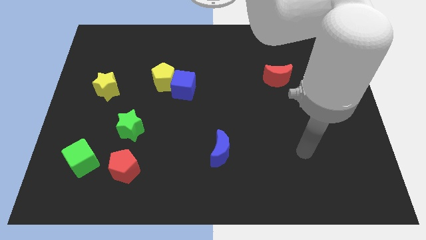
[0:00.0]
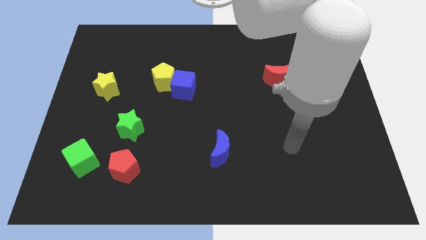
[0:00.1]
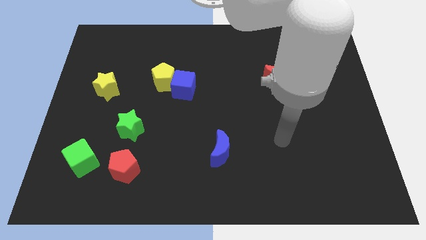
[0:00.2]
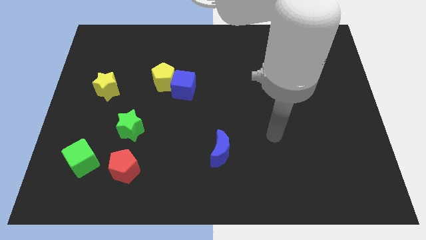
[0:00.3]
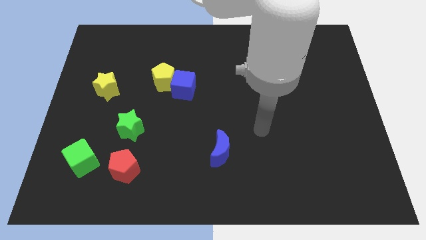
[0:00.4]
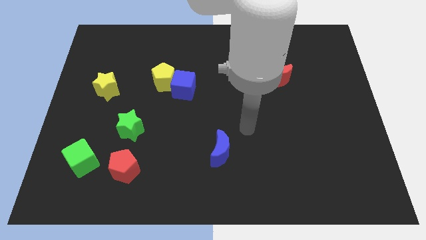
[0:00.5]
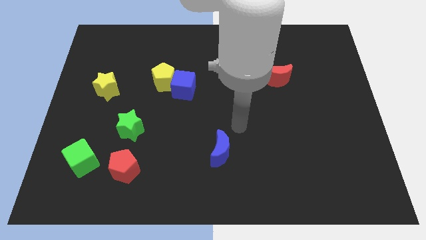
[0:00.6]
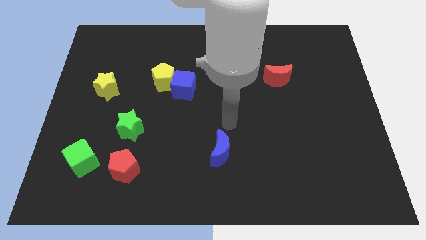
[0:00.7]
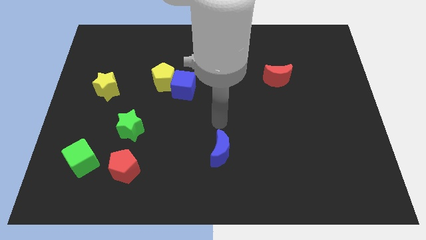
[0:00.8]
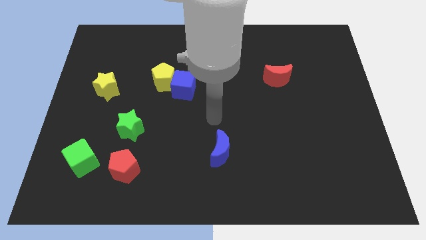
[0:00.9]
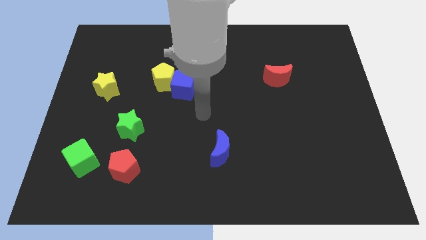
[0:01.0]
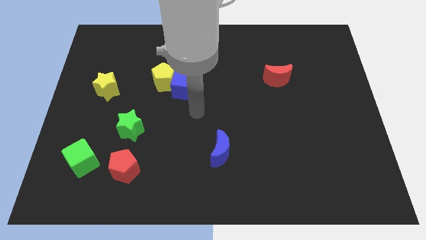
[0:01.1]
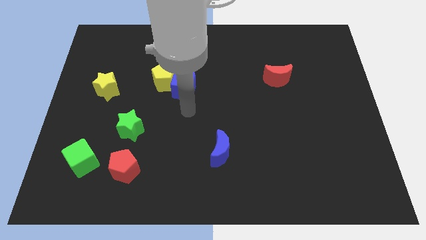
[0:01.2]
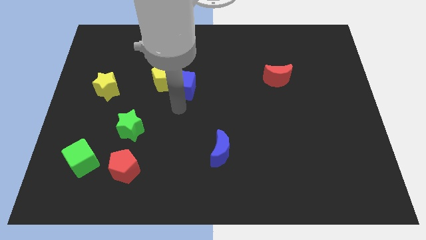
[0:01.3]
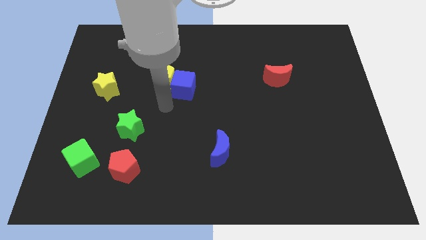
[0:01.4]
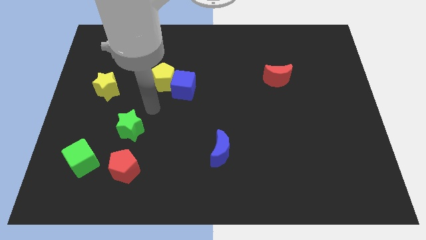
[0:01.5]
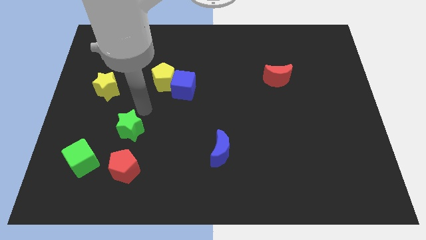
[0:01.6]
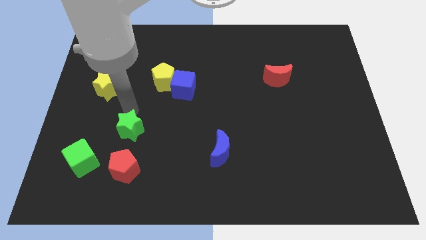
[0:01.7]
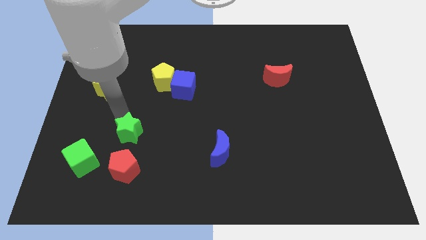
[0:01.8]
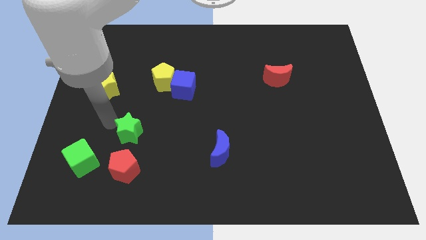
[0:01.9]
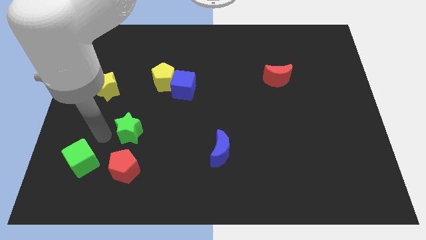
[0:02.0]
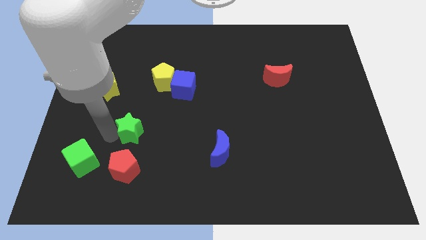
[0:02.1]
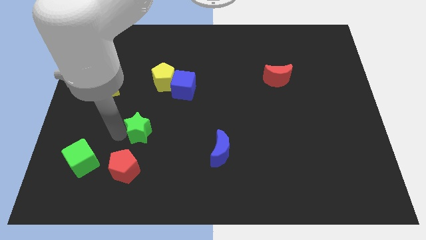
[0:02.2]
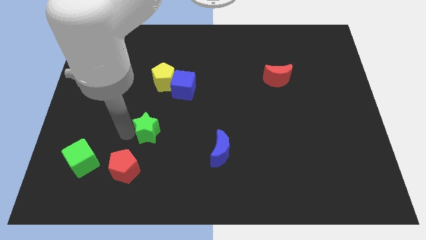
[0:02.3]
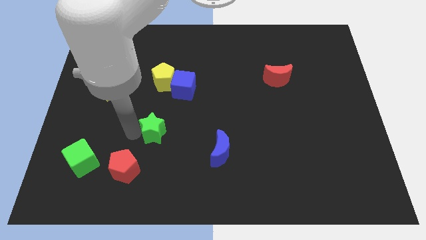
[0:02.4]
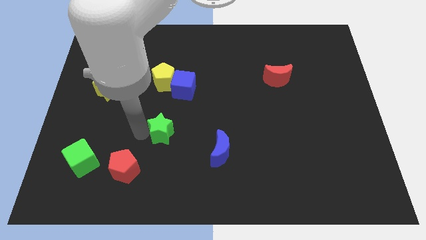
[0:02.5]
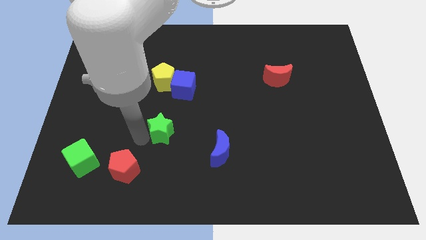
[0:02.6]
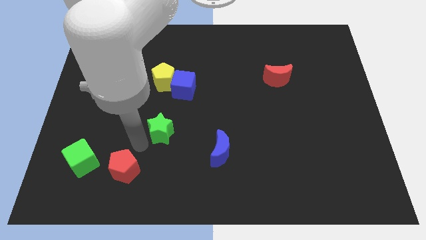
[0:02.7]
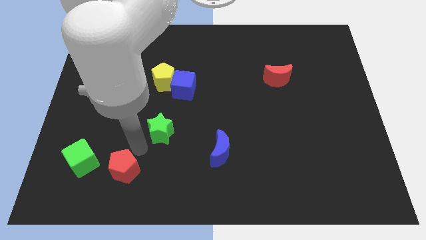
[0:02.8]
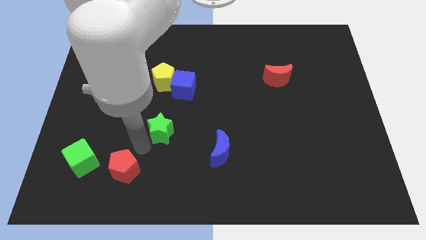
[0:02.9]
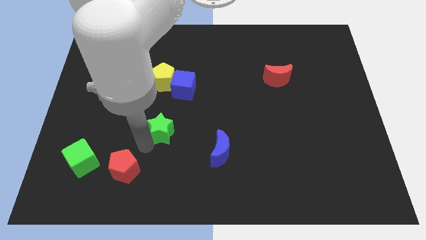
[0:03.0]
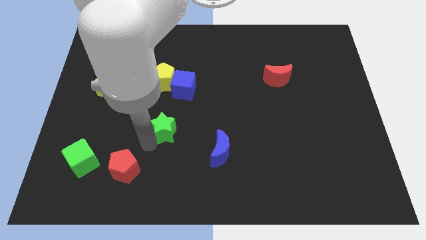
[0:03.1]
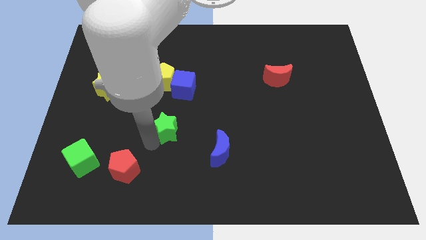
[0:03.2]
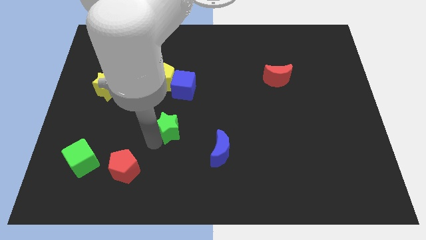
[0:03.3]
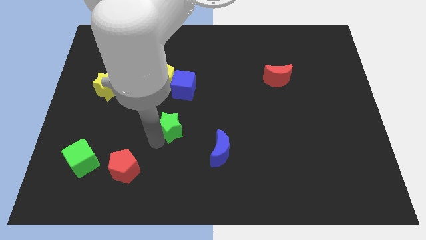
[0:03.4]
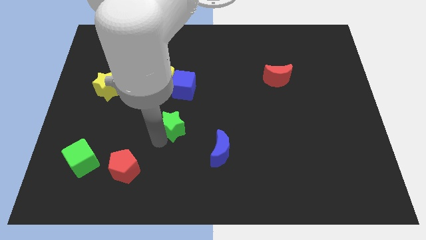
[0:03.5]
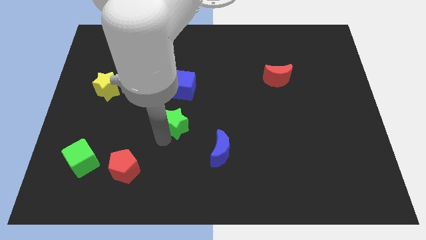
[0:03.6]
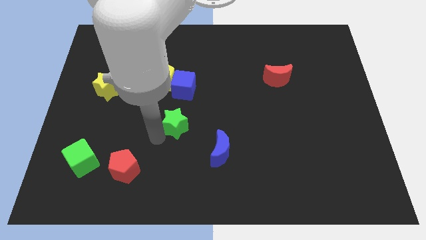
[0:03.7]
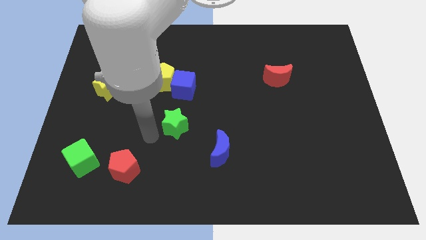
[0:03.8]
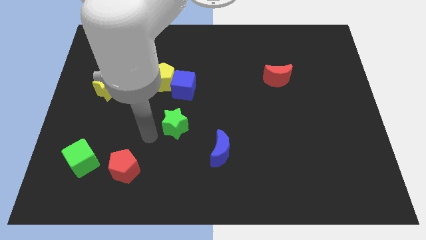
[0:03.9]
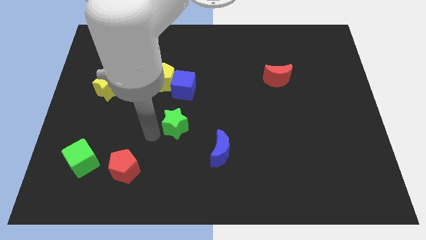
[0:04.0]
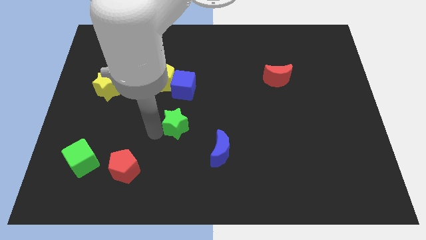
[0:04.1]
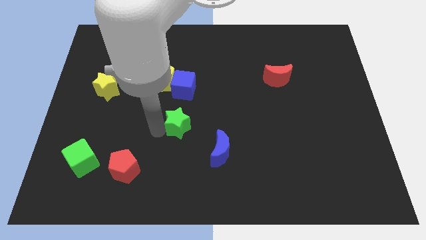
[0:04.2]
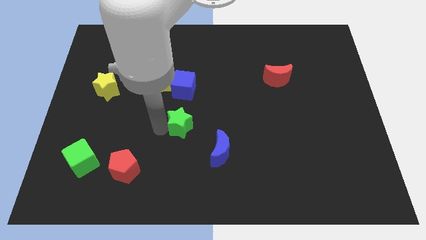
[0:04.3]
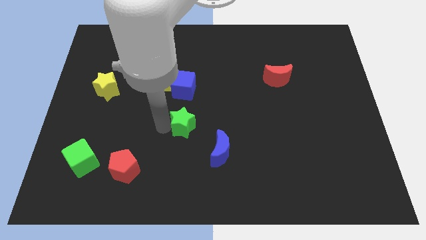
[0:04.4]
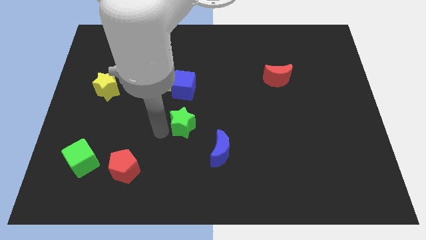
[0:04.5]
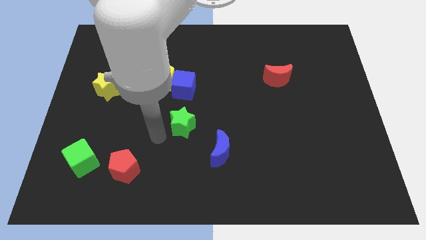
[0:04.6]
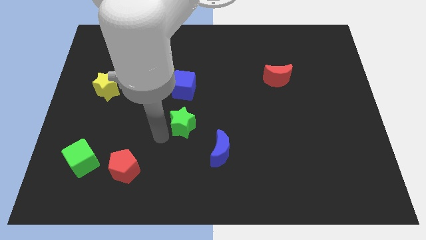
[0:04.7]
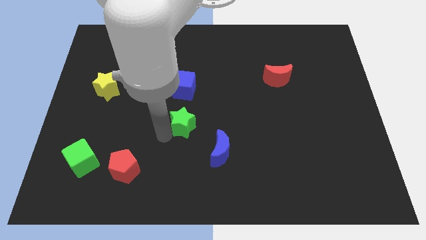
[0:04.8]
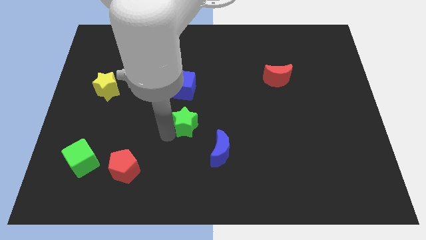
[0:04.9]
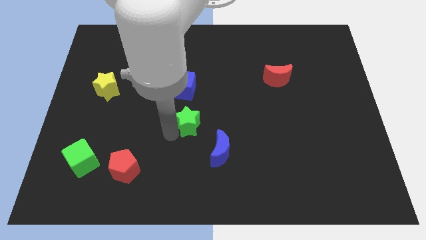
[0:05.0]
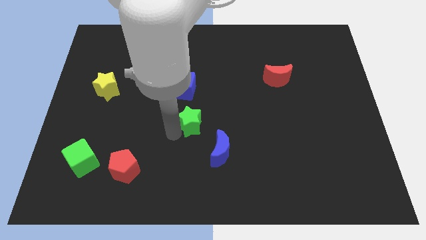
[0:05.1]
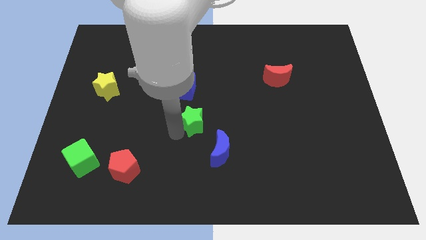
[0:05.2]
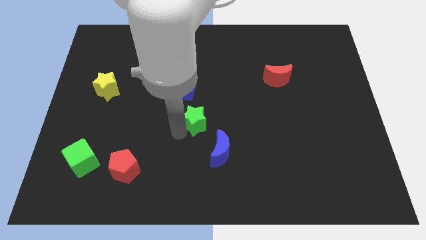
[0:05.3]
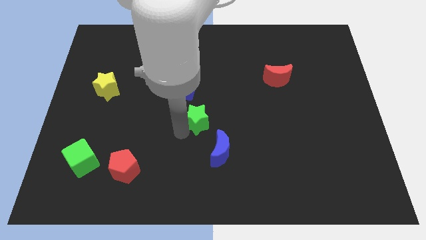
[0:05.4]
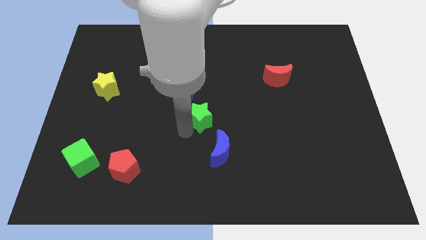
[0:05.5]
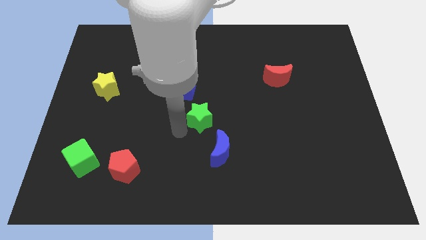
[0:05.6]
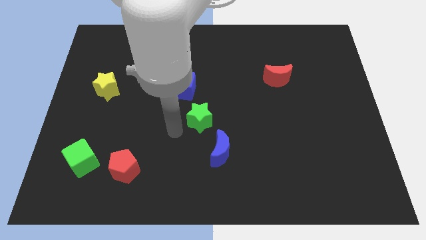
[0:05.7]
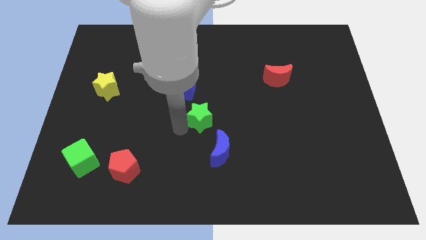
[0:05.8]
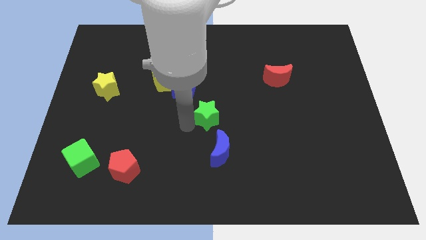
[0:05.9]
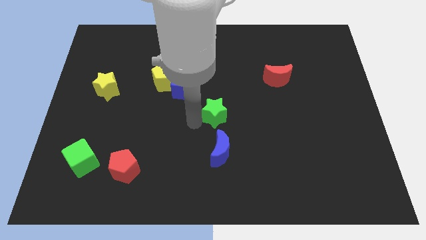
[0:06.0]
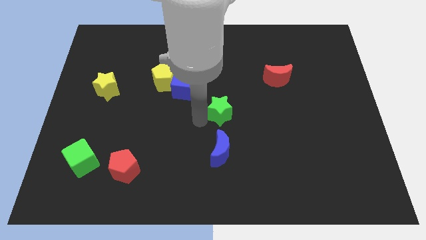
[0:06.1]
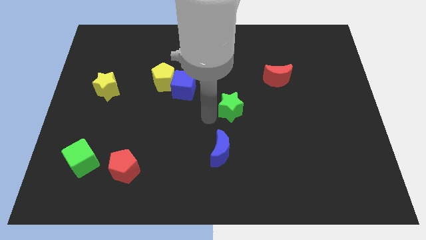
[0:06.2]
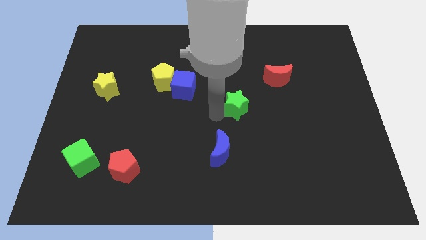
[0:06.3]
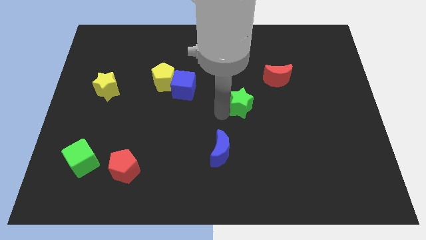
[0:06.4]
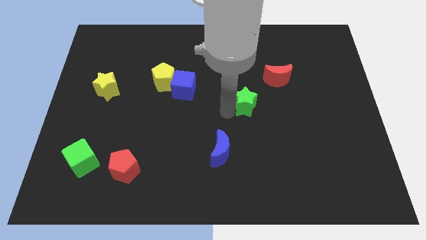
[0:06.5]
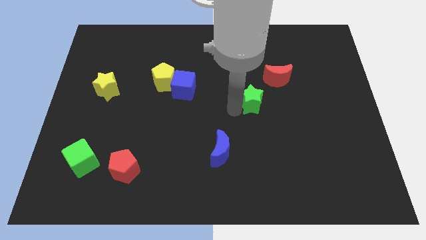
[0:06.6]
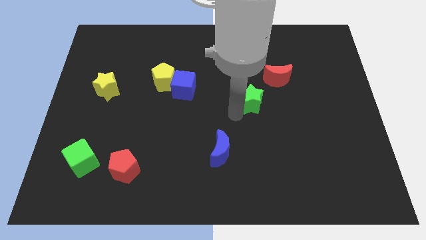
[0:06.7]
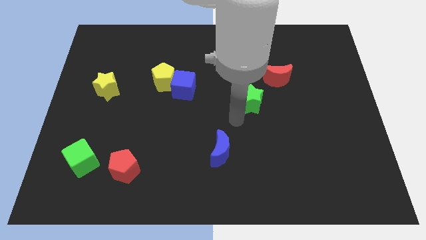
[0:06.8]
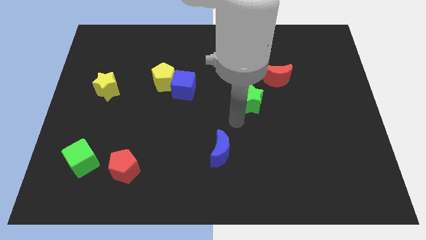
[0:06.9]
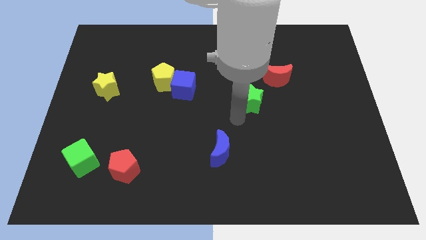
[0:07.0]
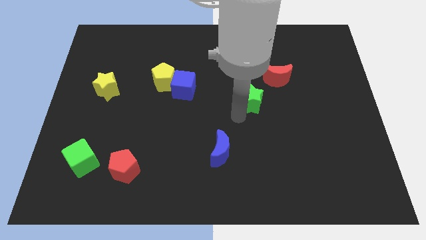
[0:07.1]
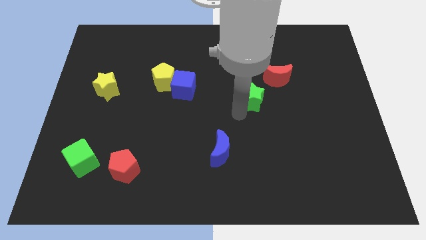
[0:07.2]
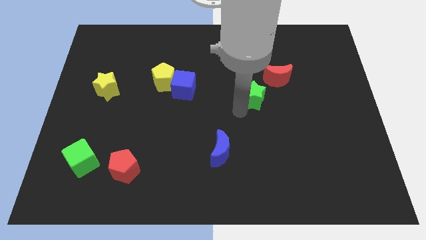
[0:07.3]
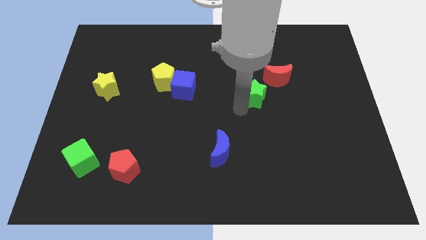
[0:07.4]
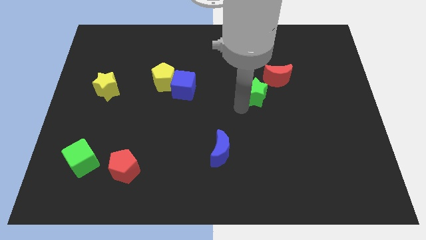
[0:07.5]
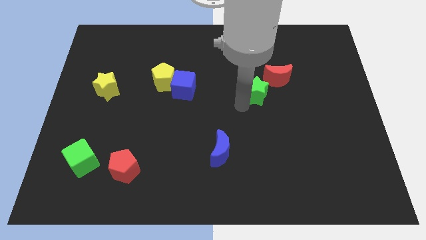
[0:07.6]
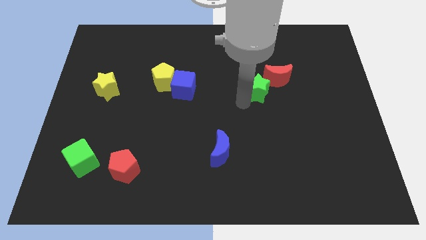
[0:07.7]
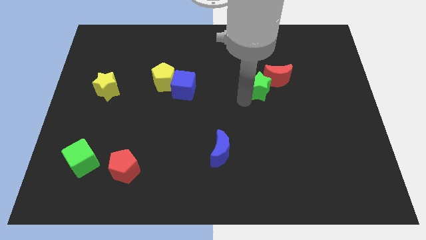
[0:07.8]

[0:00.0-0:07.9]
put the green star next to the red moon
